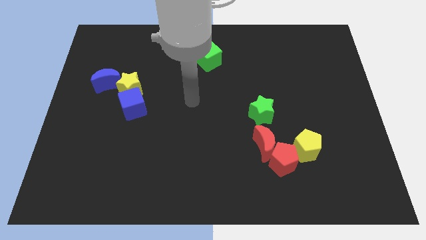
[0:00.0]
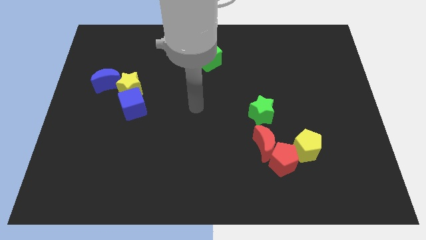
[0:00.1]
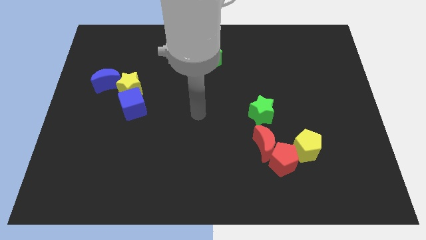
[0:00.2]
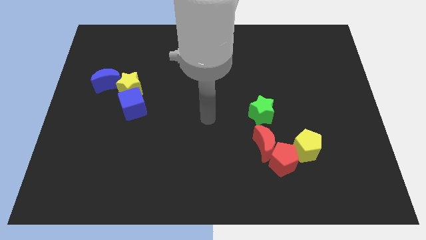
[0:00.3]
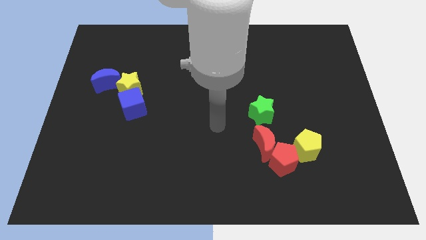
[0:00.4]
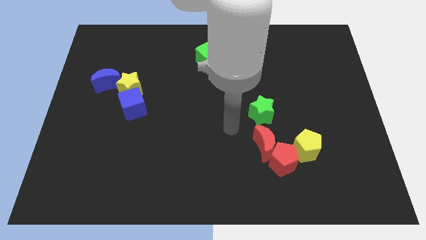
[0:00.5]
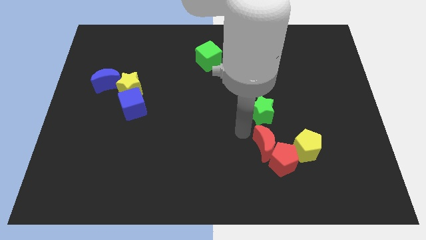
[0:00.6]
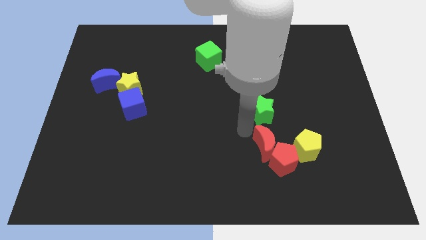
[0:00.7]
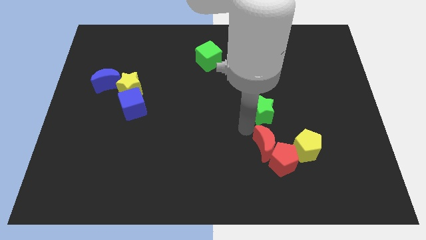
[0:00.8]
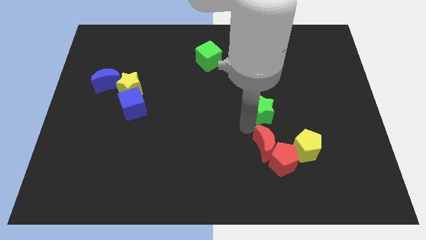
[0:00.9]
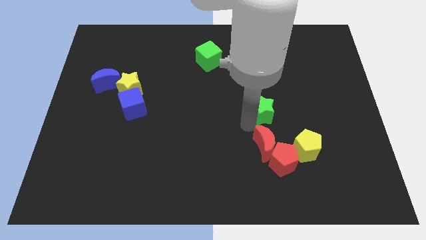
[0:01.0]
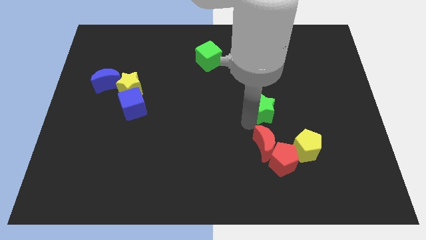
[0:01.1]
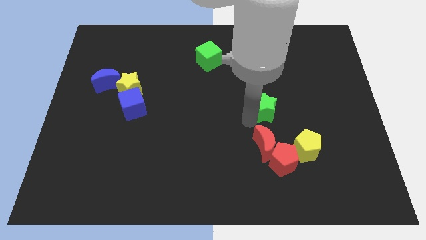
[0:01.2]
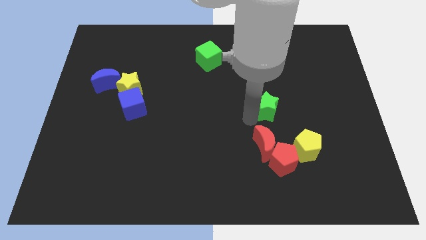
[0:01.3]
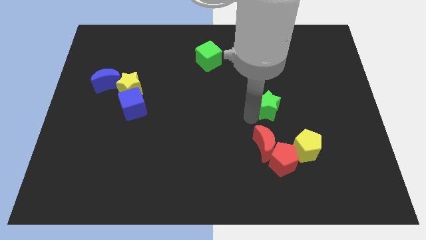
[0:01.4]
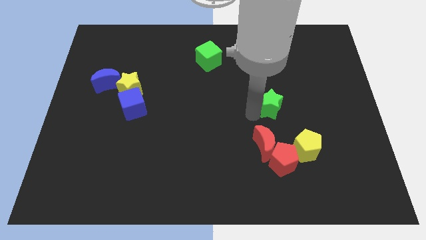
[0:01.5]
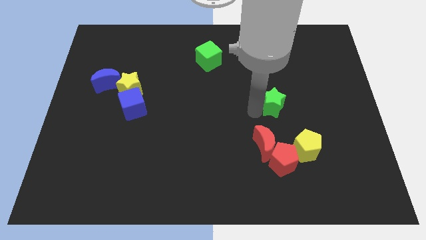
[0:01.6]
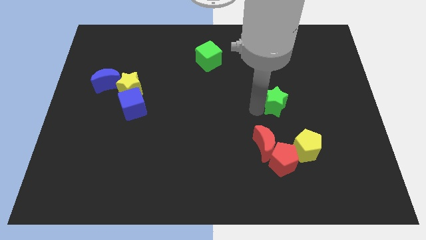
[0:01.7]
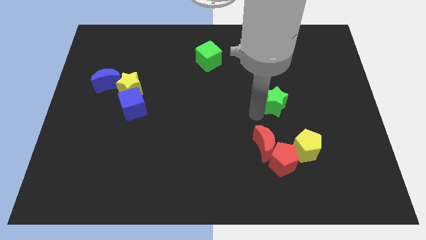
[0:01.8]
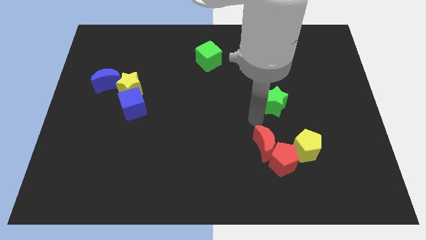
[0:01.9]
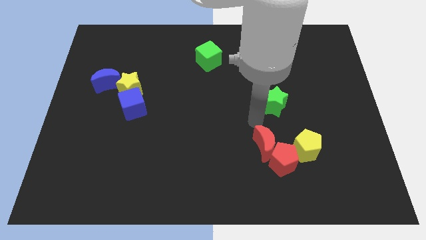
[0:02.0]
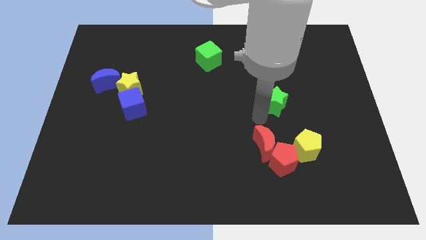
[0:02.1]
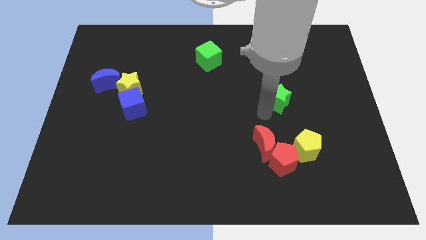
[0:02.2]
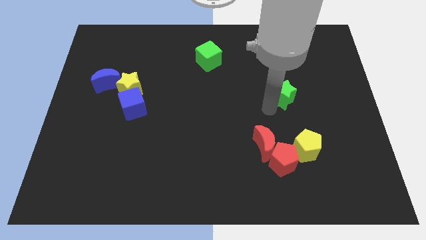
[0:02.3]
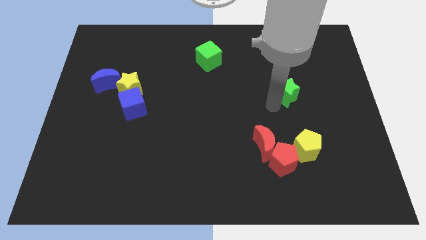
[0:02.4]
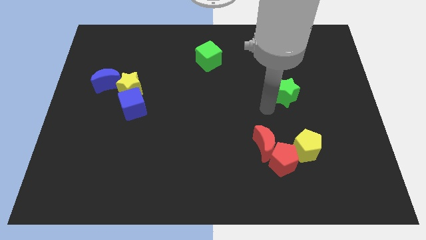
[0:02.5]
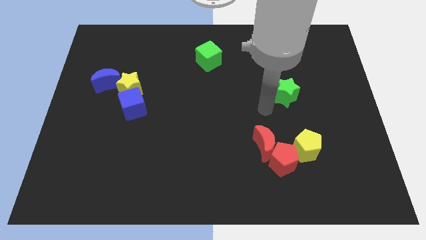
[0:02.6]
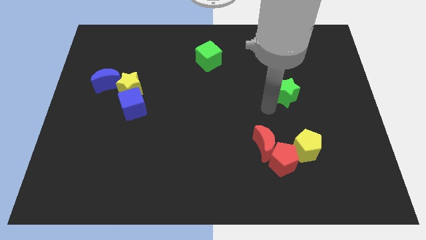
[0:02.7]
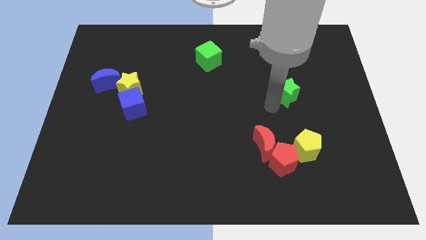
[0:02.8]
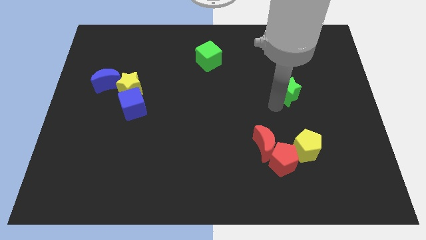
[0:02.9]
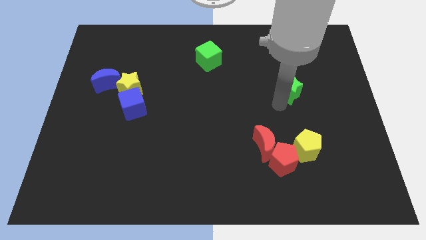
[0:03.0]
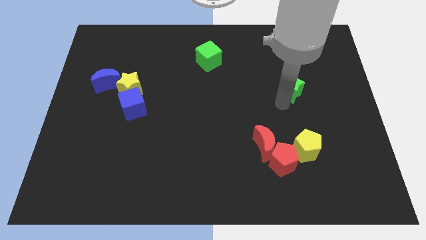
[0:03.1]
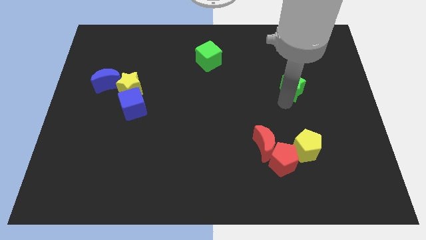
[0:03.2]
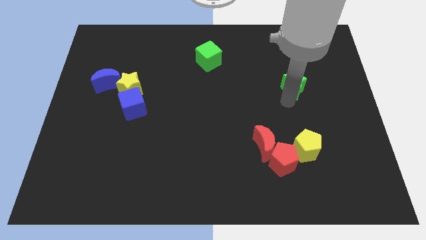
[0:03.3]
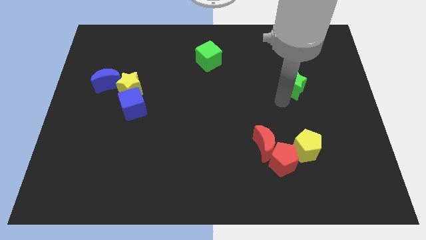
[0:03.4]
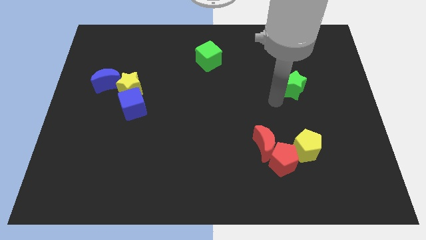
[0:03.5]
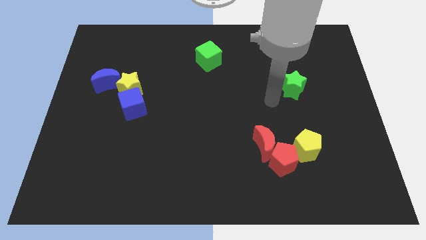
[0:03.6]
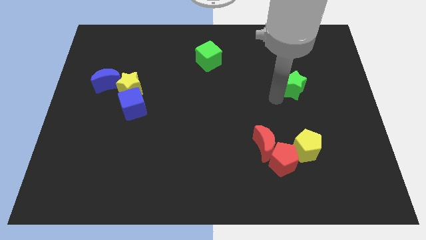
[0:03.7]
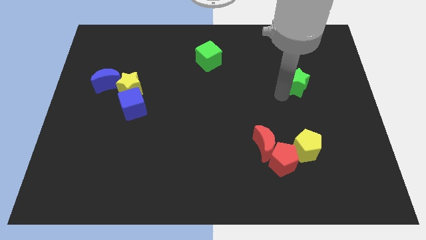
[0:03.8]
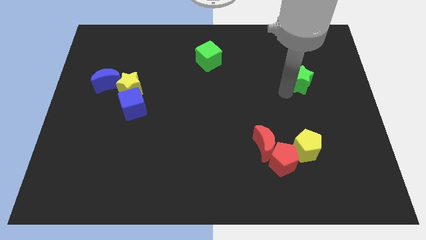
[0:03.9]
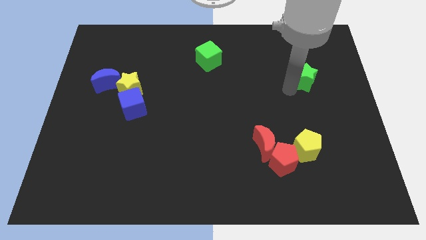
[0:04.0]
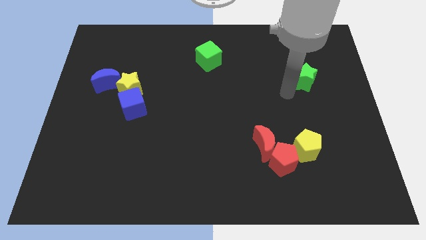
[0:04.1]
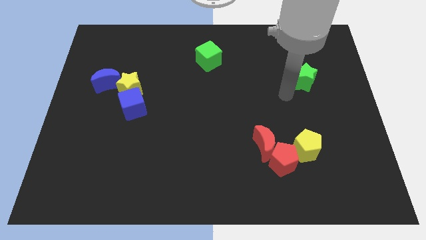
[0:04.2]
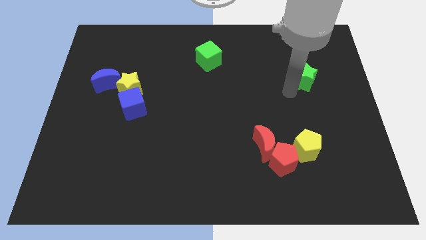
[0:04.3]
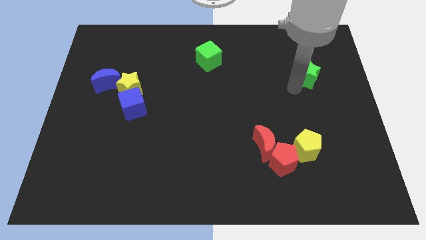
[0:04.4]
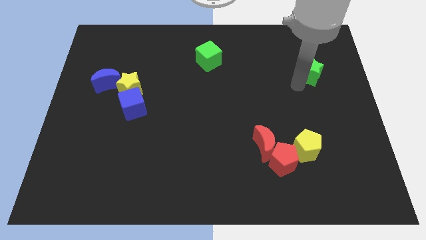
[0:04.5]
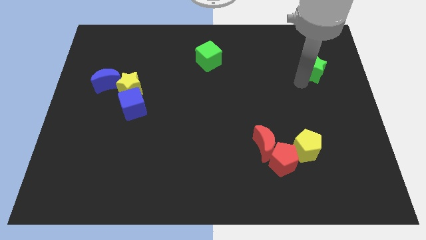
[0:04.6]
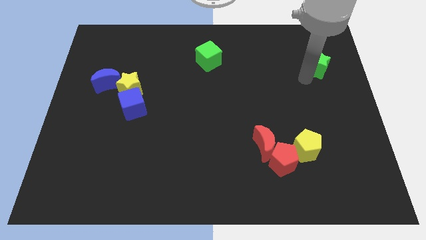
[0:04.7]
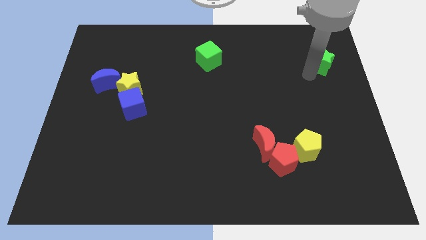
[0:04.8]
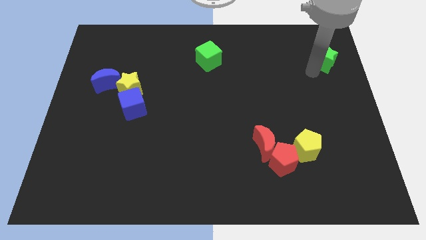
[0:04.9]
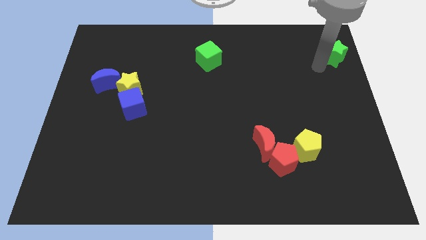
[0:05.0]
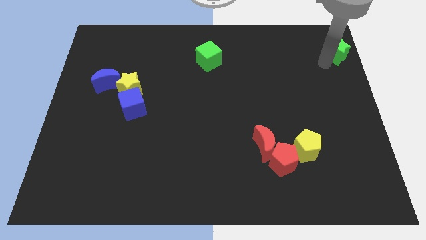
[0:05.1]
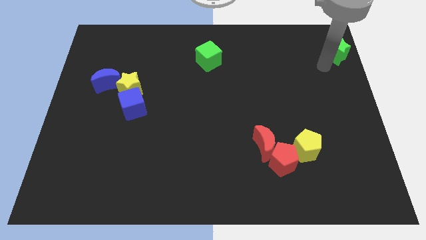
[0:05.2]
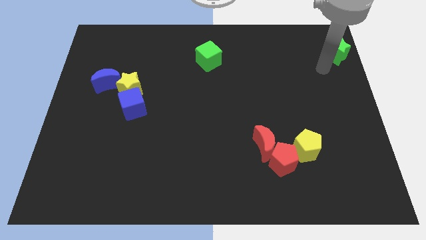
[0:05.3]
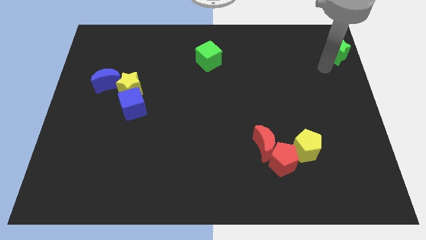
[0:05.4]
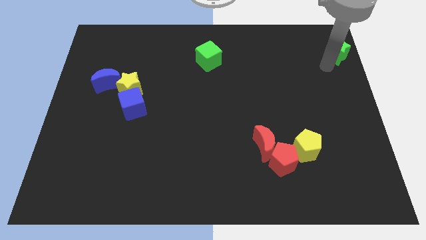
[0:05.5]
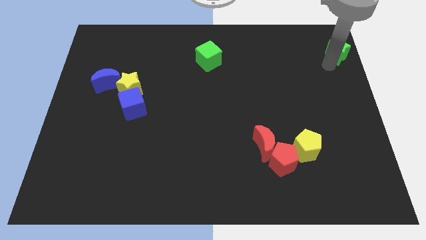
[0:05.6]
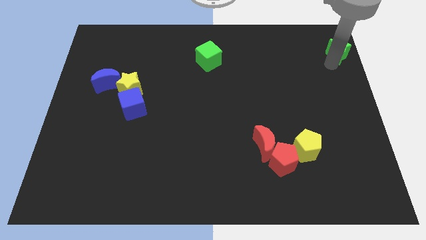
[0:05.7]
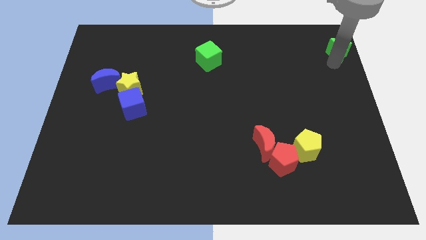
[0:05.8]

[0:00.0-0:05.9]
put the green star to the top right of the board

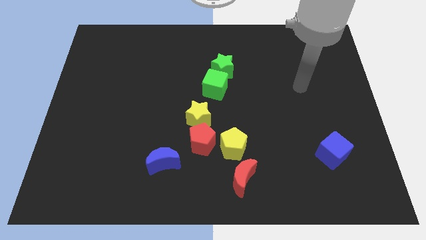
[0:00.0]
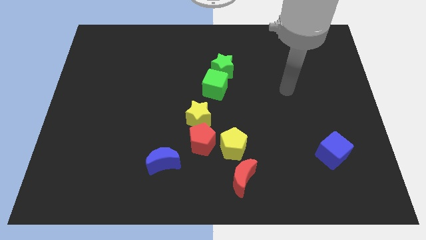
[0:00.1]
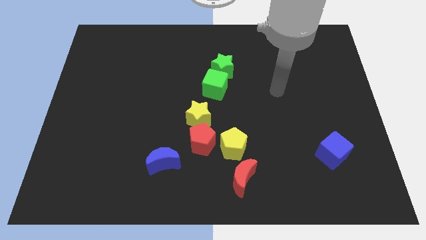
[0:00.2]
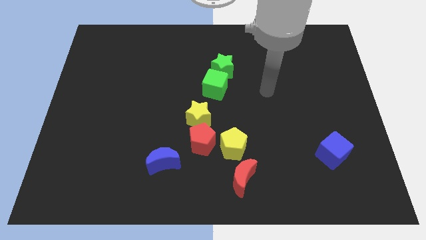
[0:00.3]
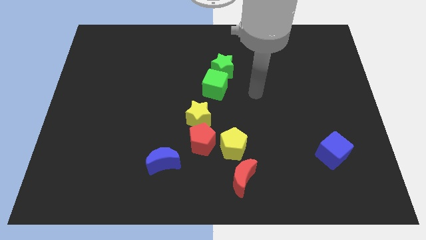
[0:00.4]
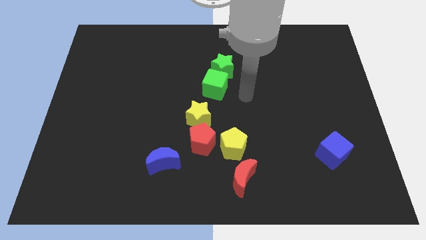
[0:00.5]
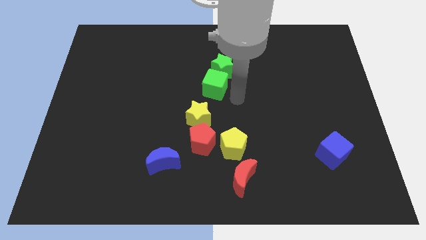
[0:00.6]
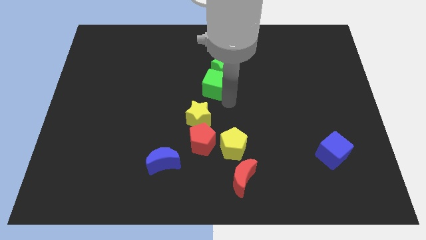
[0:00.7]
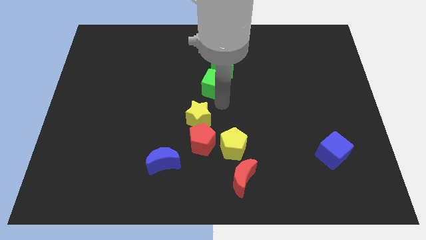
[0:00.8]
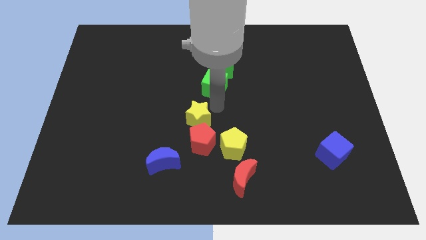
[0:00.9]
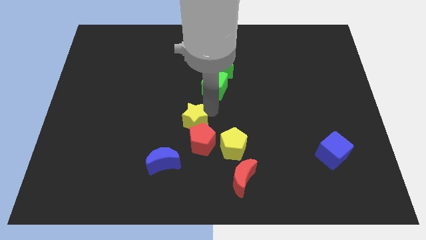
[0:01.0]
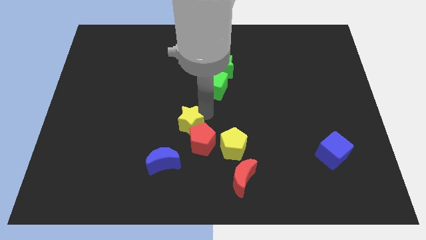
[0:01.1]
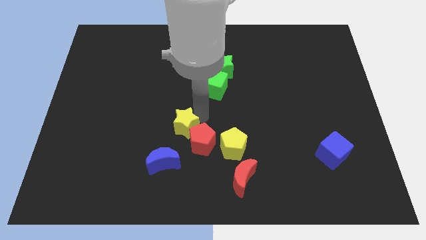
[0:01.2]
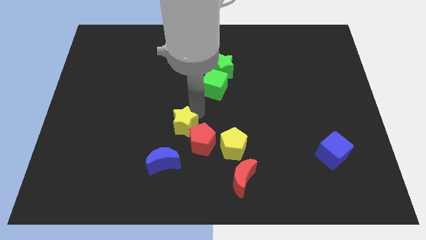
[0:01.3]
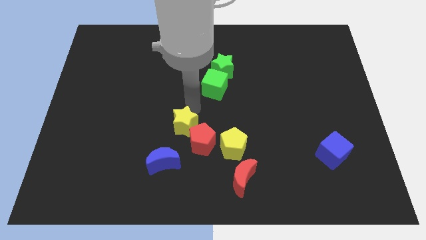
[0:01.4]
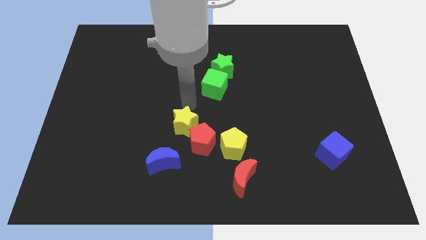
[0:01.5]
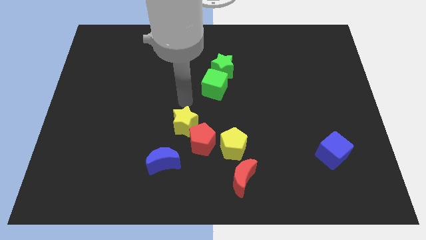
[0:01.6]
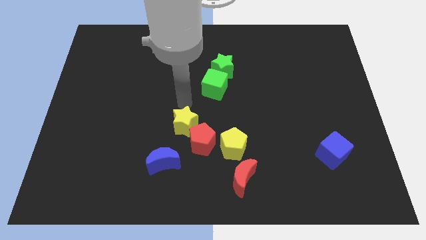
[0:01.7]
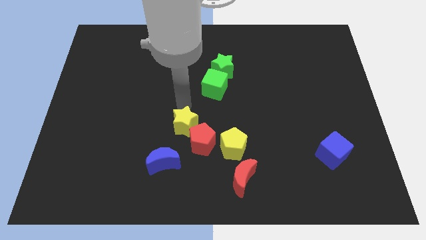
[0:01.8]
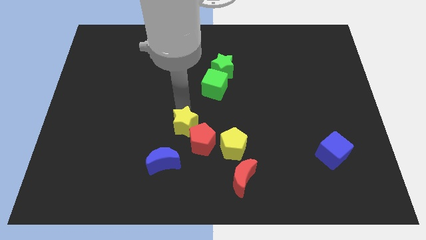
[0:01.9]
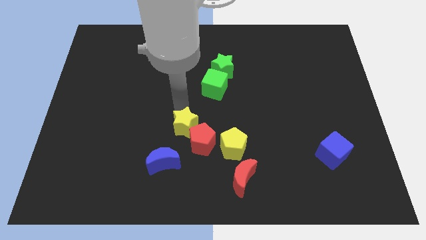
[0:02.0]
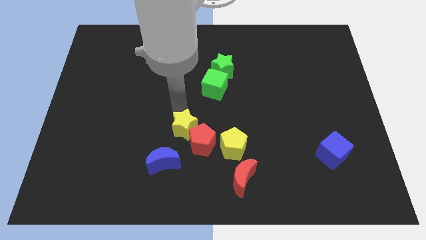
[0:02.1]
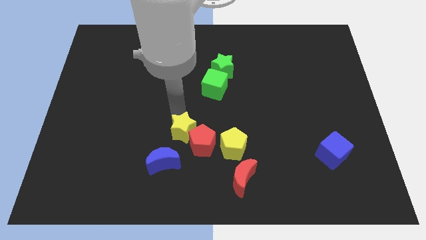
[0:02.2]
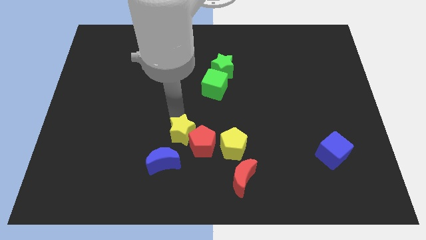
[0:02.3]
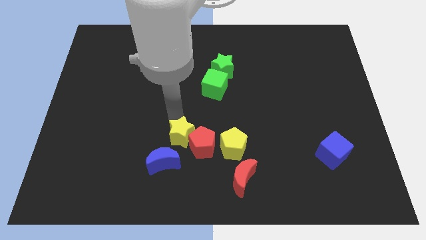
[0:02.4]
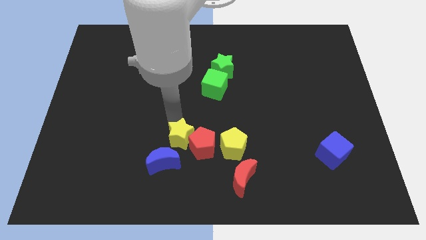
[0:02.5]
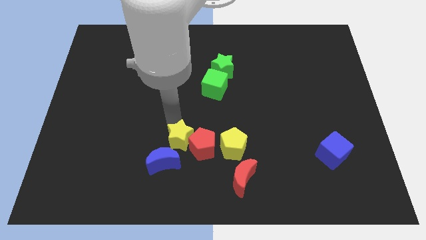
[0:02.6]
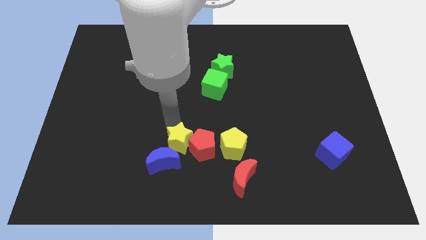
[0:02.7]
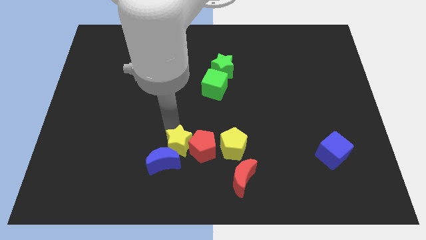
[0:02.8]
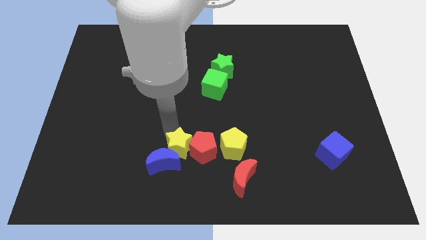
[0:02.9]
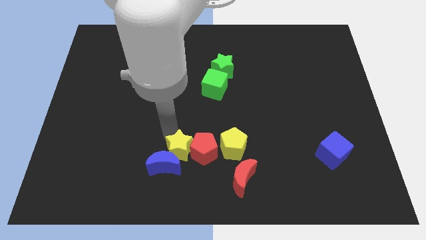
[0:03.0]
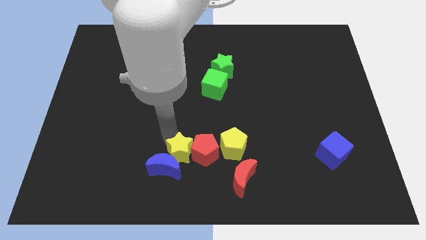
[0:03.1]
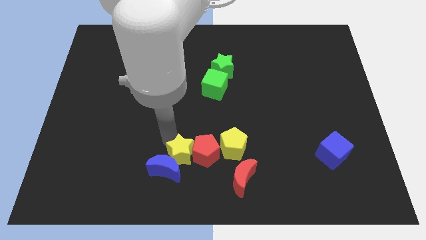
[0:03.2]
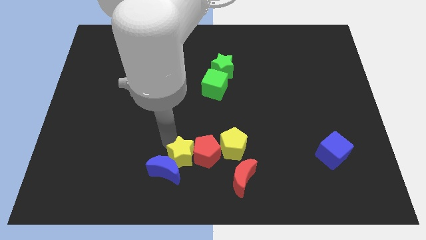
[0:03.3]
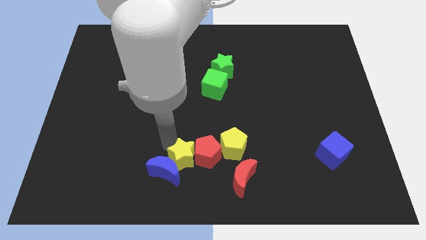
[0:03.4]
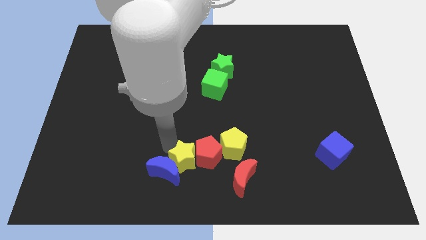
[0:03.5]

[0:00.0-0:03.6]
move the yellow star to the bottom side
